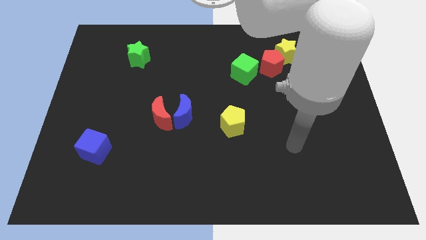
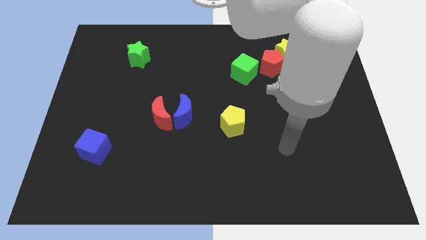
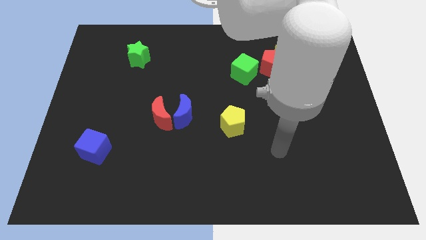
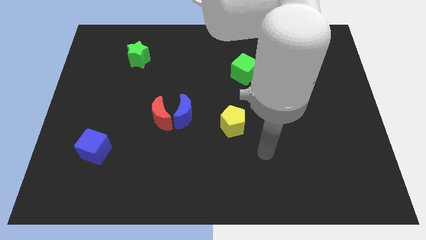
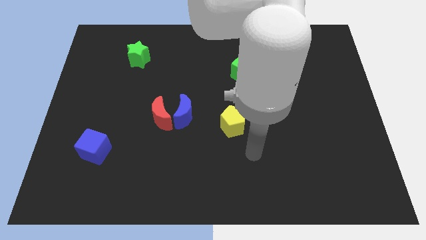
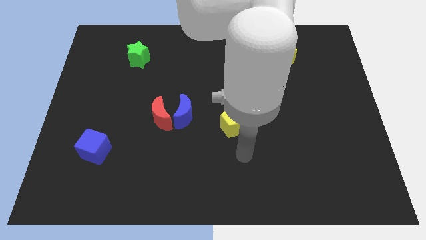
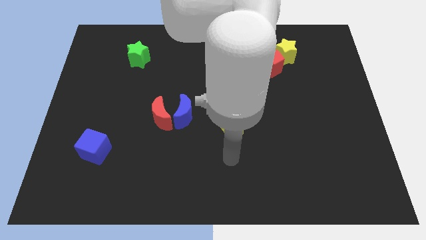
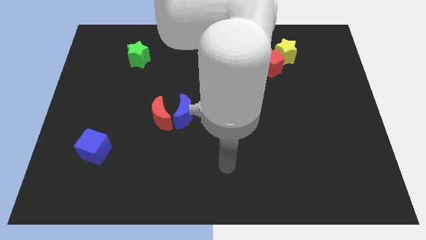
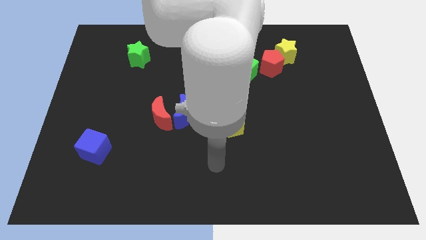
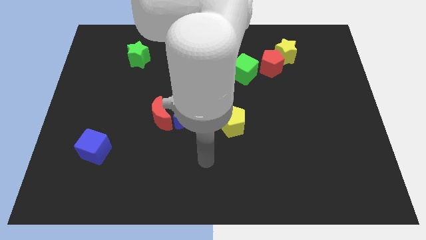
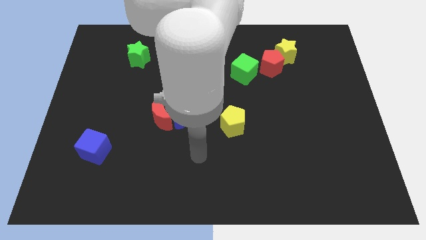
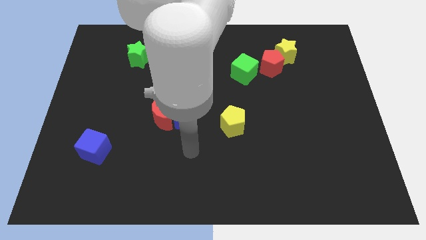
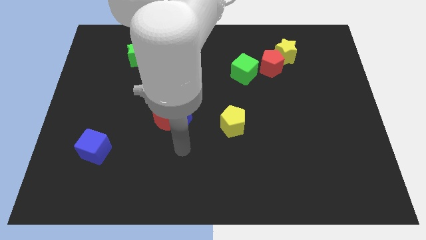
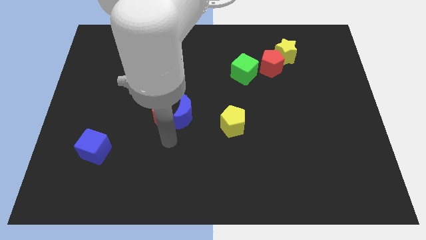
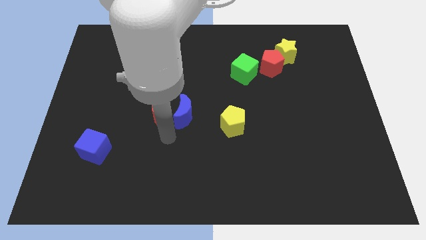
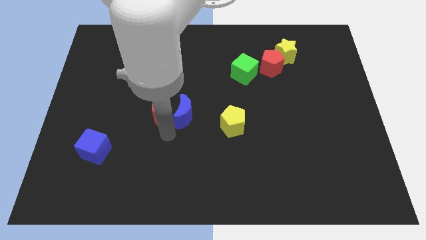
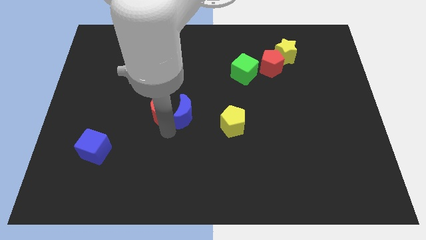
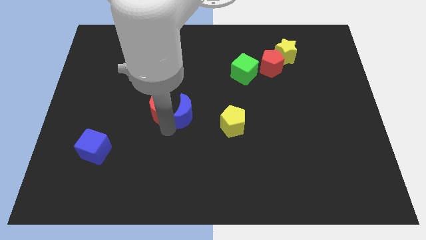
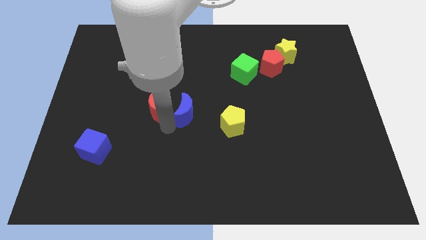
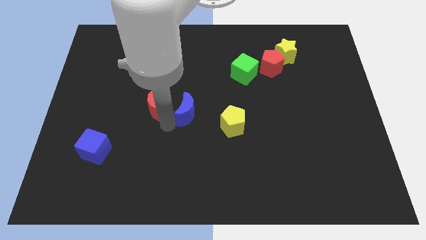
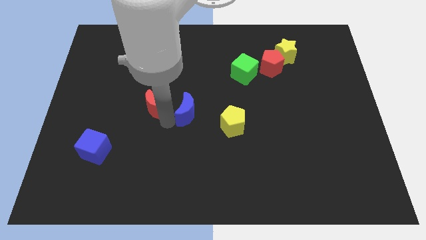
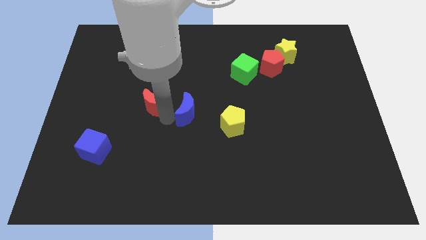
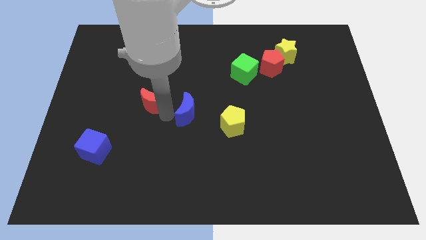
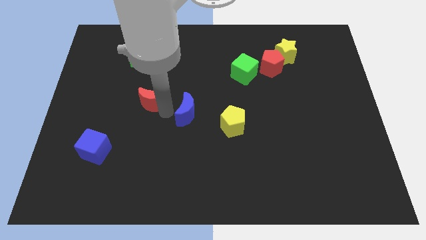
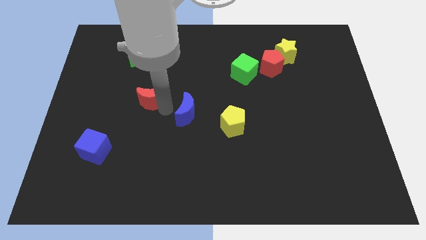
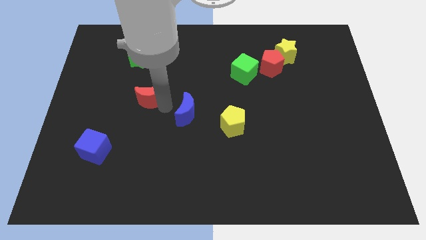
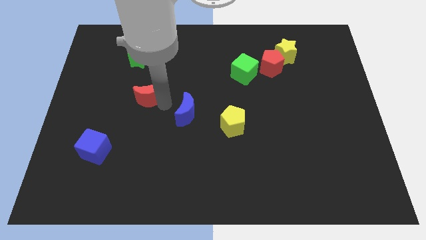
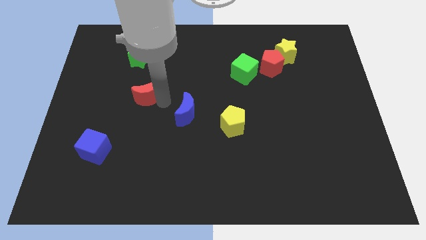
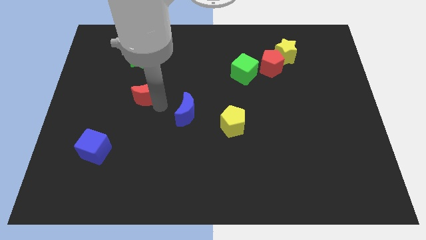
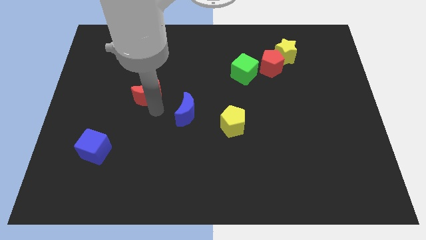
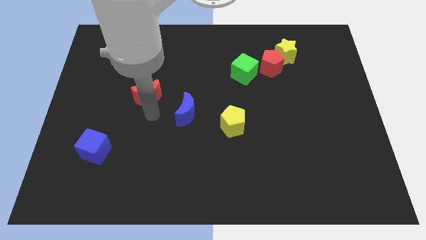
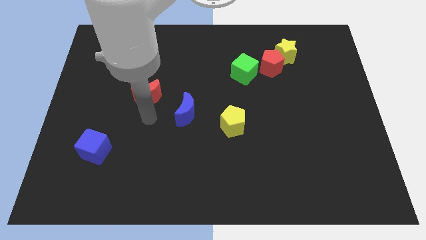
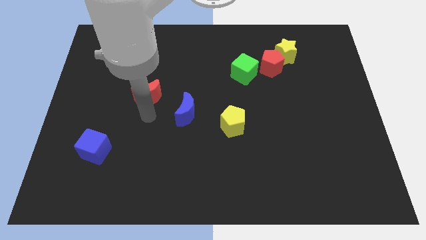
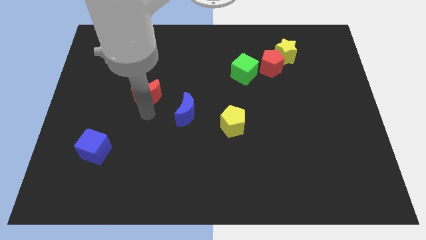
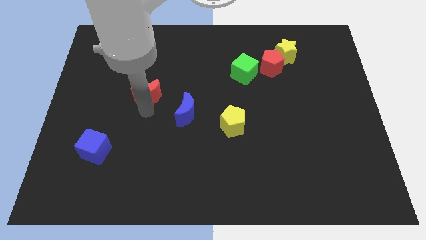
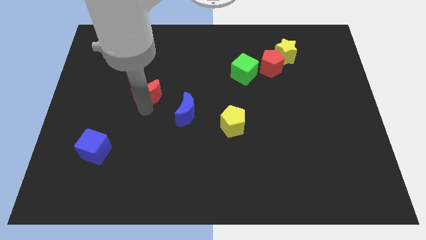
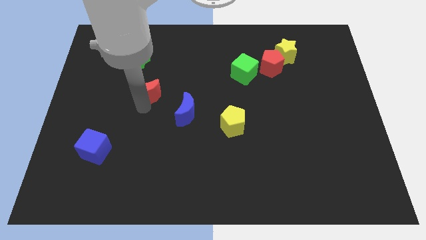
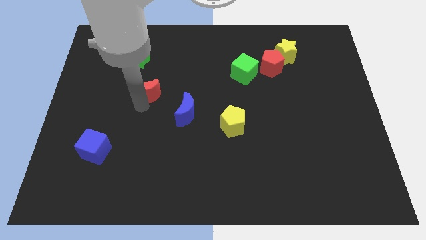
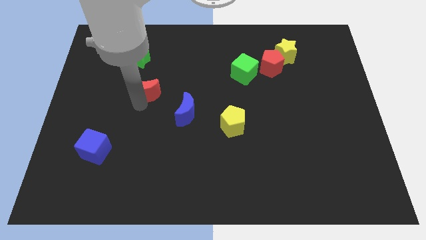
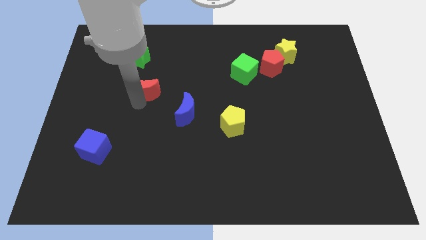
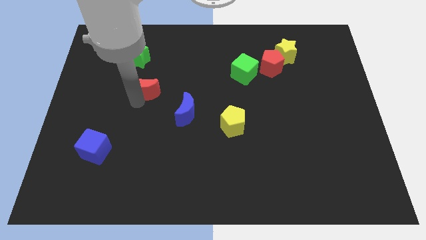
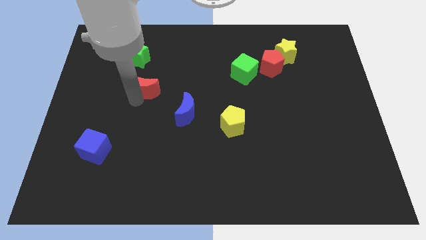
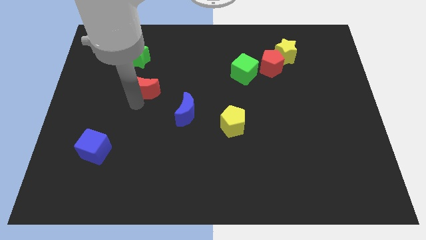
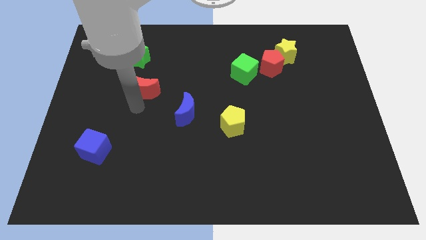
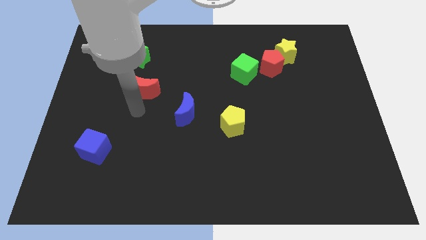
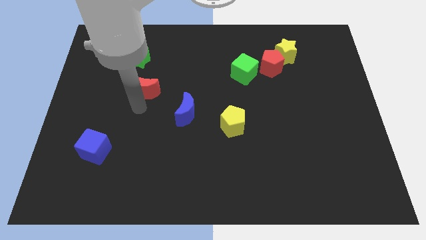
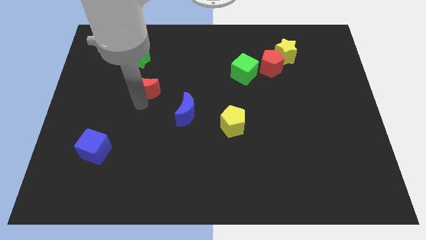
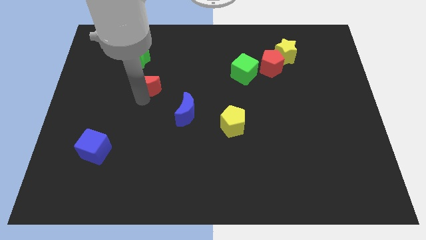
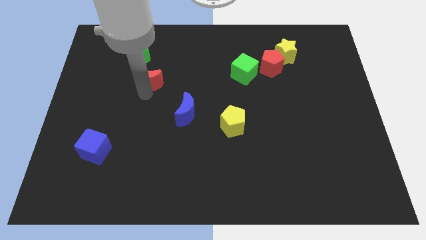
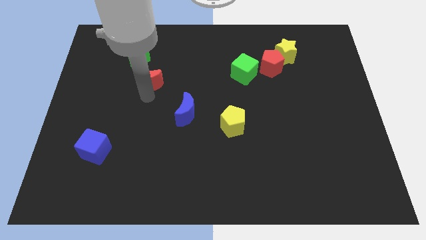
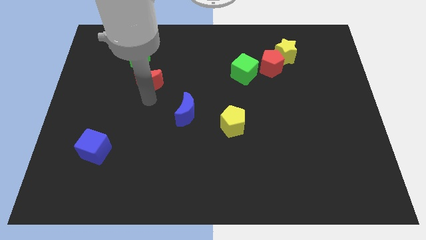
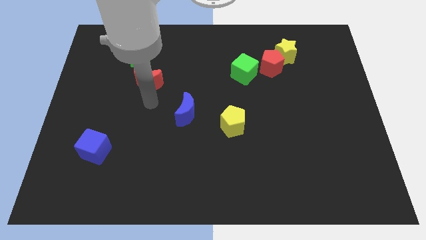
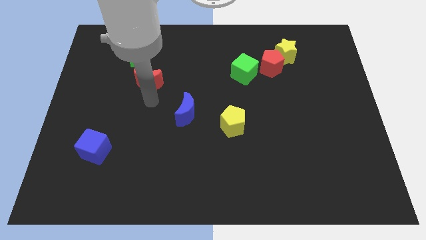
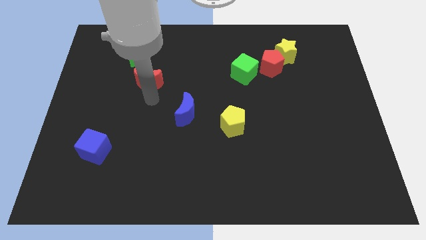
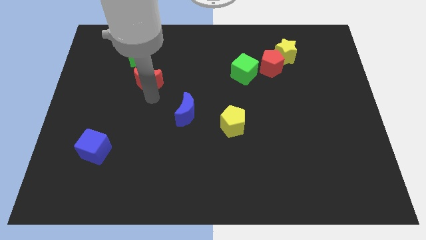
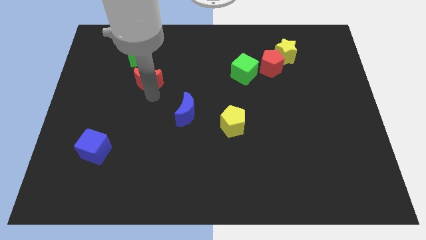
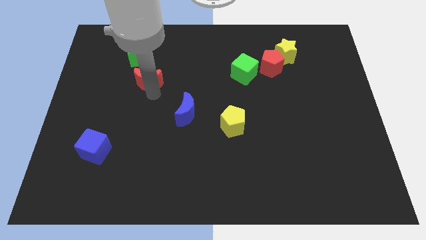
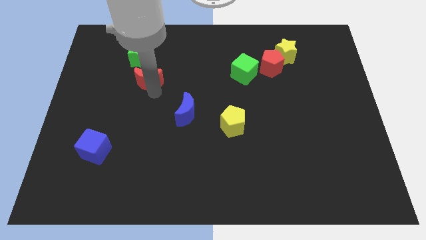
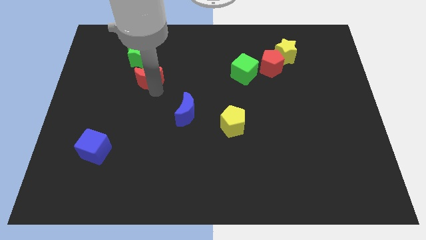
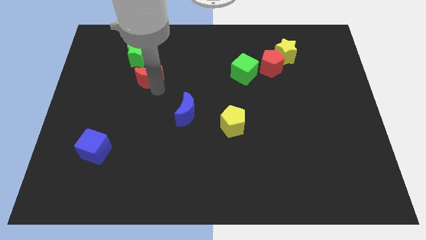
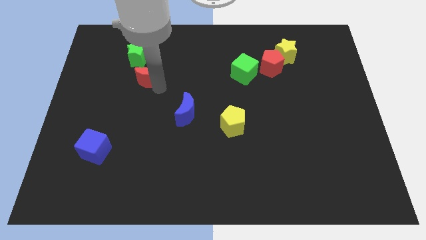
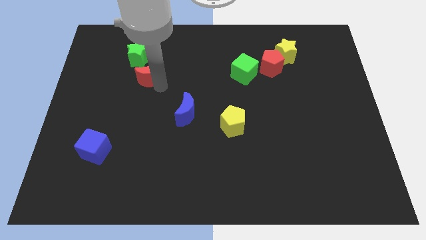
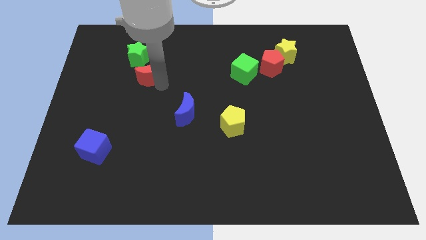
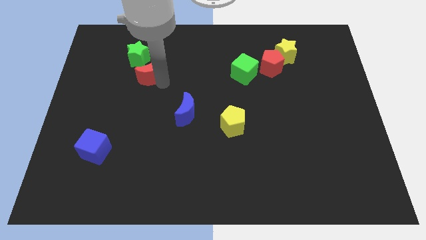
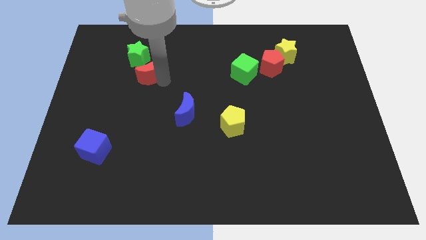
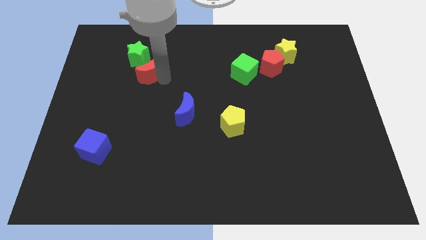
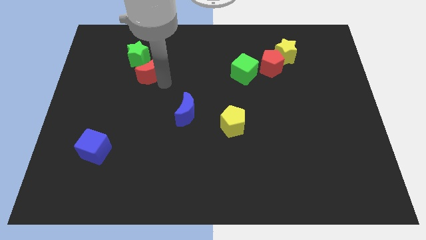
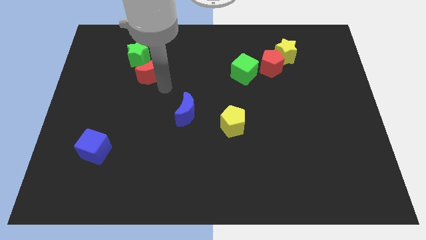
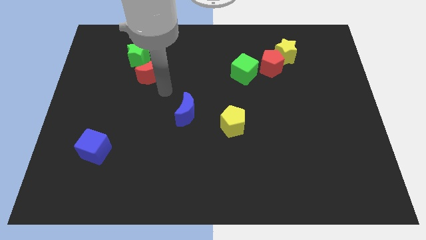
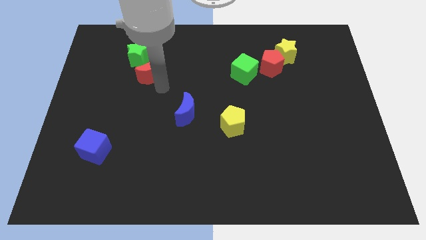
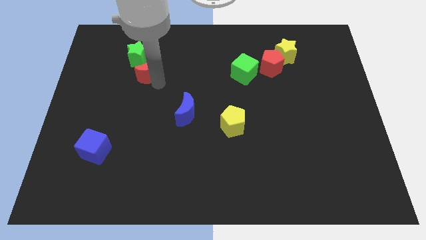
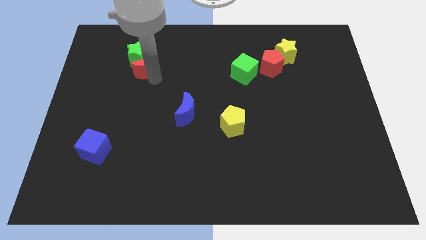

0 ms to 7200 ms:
move the red moon towards the green star

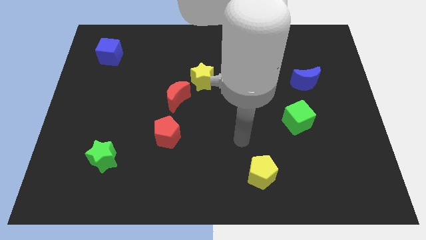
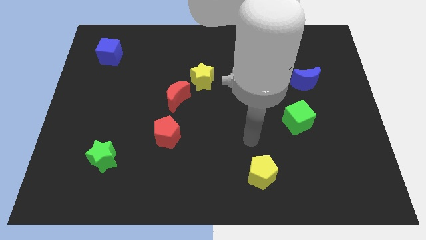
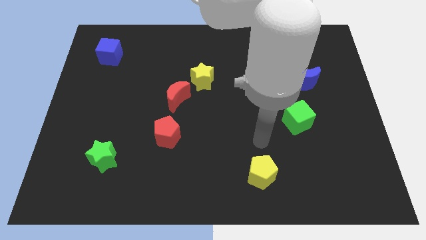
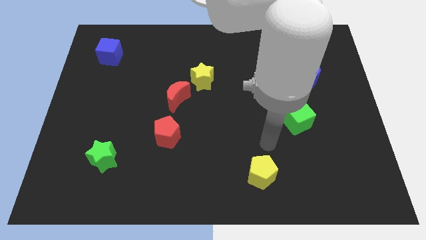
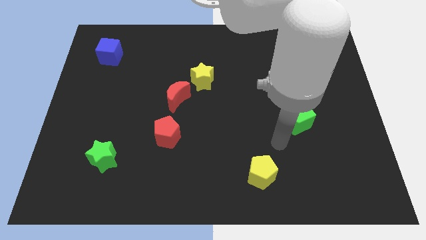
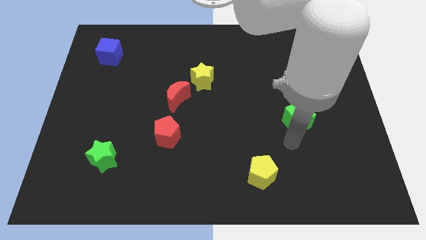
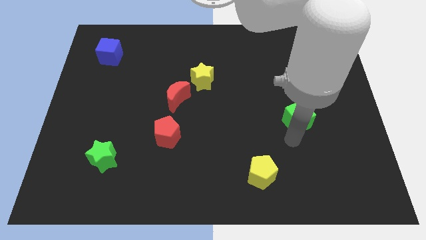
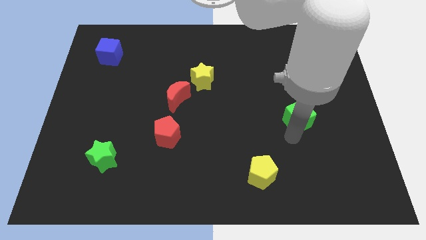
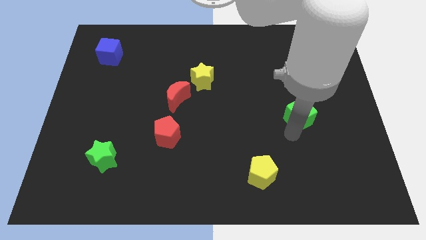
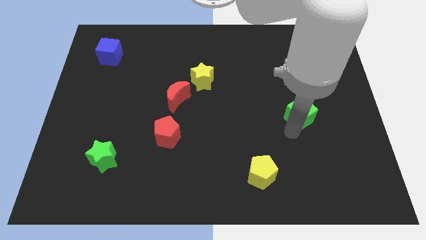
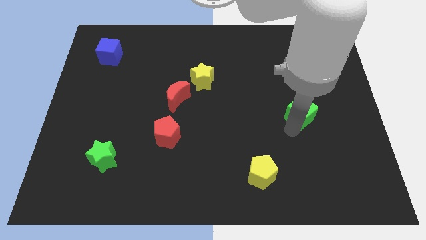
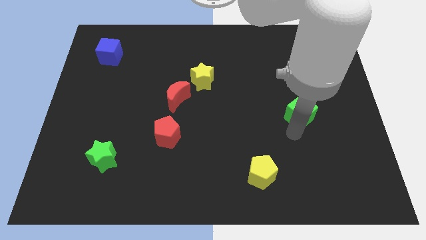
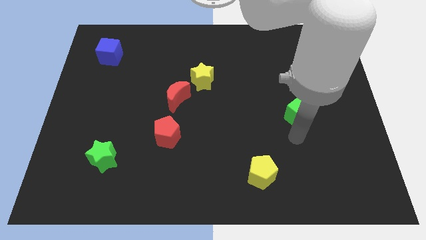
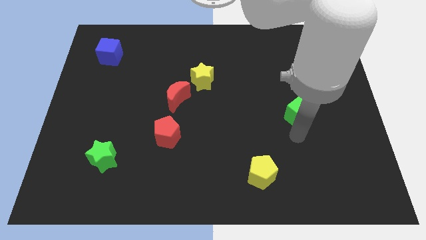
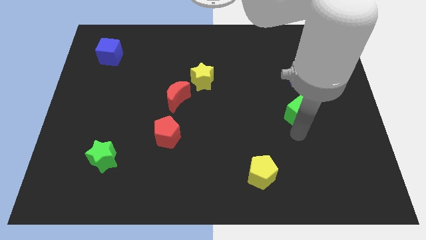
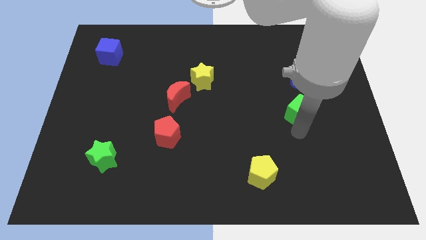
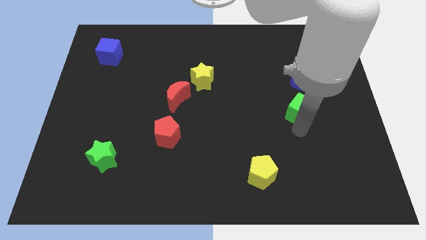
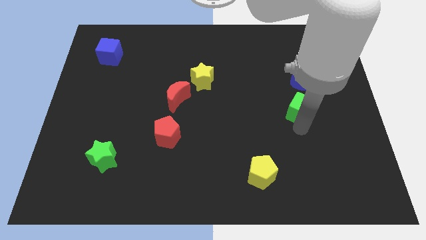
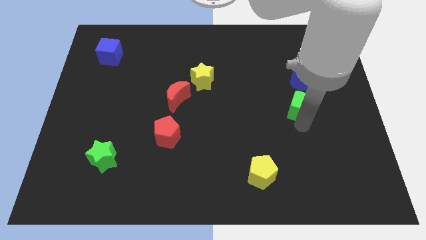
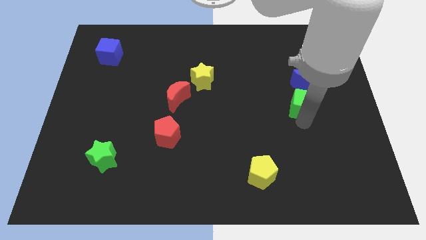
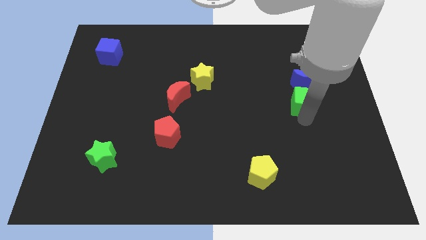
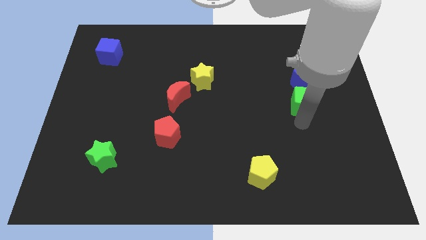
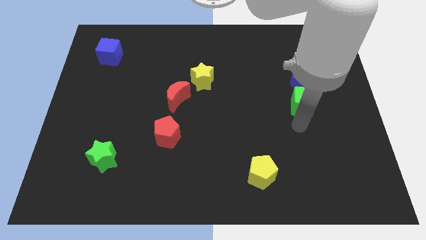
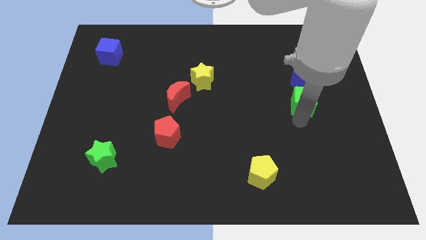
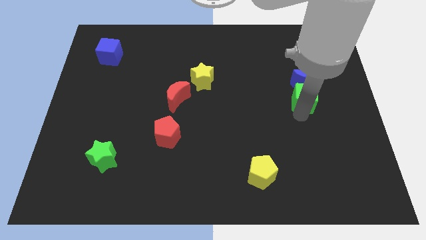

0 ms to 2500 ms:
push the green cube towards the blue moon
